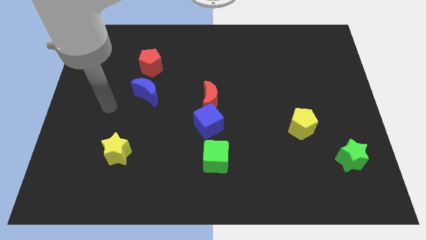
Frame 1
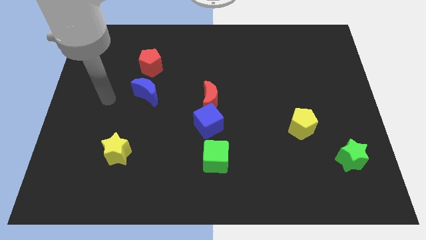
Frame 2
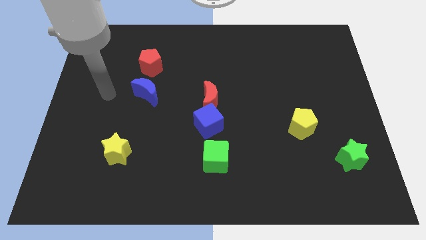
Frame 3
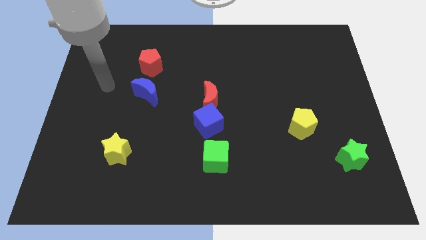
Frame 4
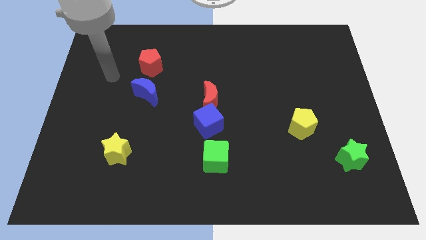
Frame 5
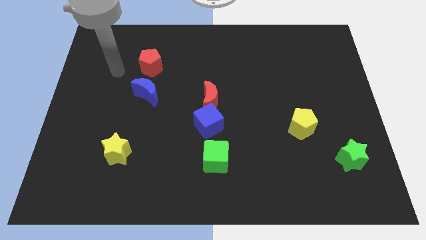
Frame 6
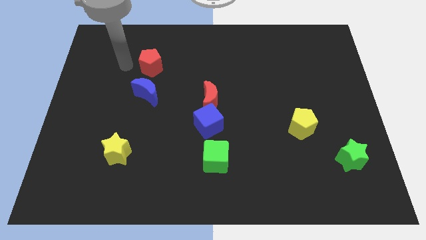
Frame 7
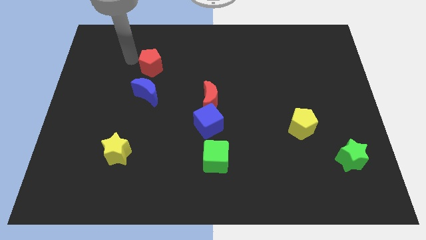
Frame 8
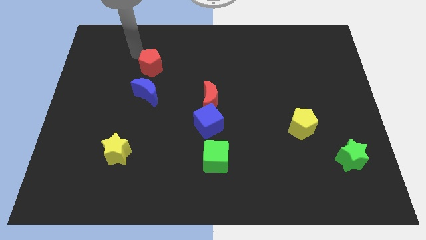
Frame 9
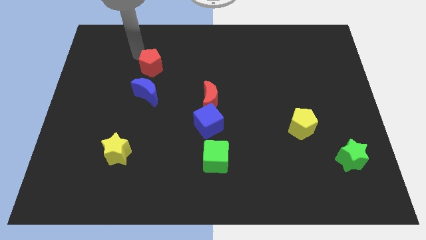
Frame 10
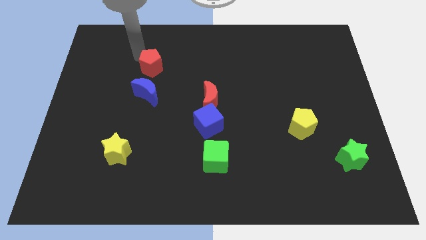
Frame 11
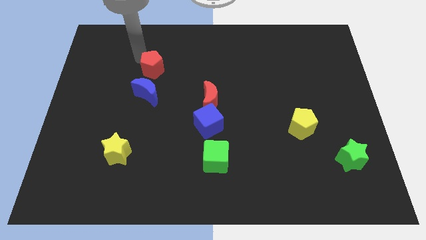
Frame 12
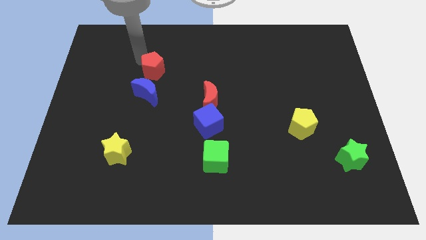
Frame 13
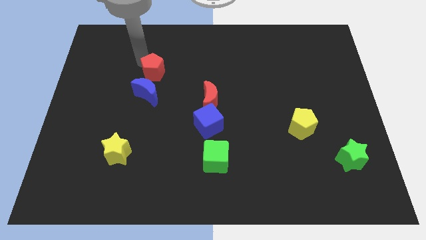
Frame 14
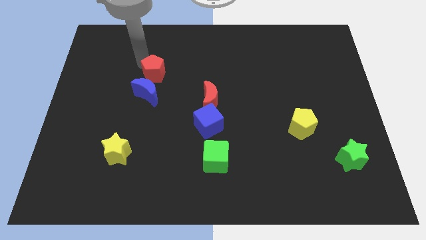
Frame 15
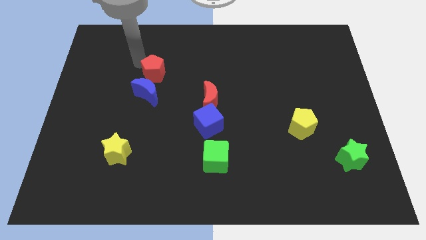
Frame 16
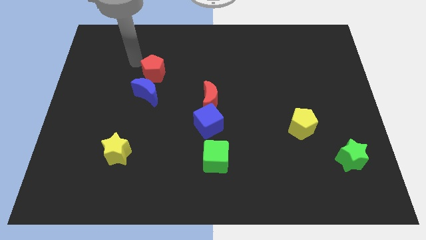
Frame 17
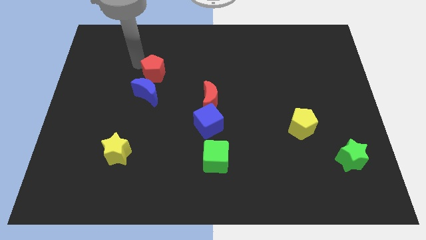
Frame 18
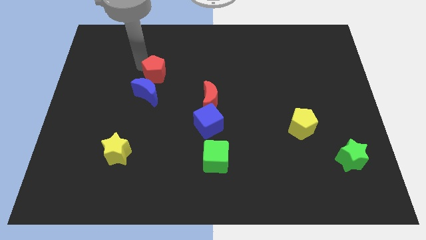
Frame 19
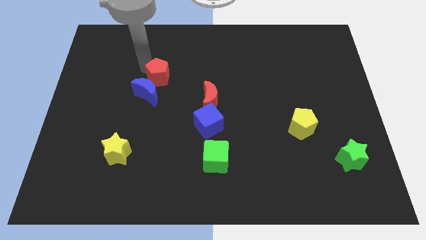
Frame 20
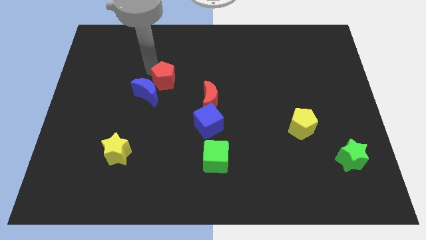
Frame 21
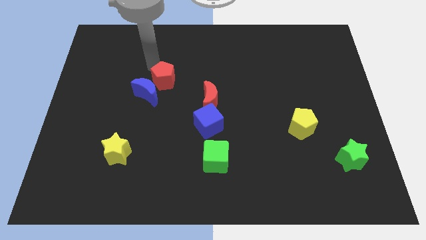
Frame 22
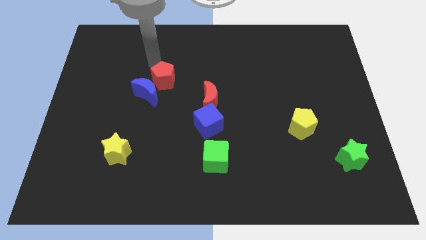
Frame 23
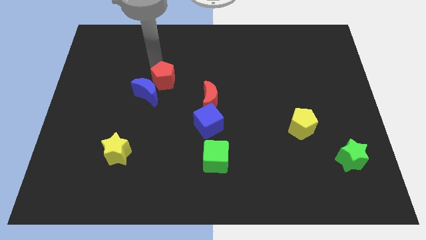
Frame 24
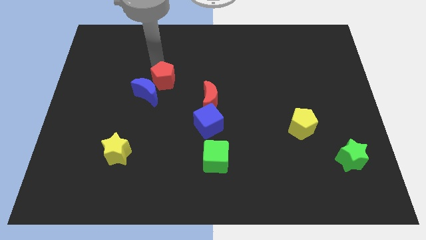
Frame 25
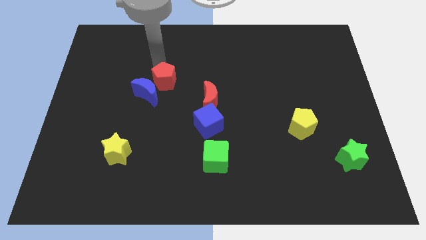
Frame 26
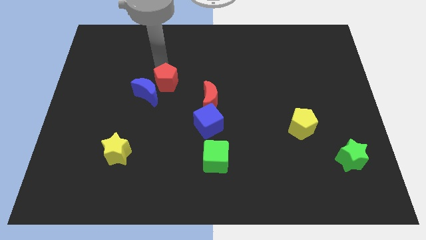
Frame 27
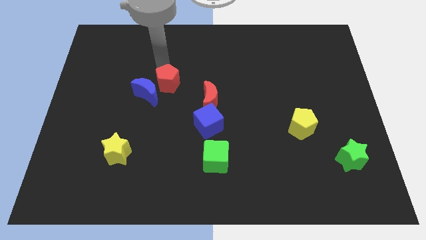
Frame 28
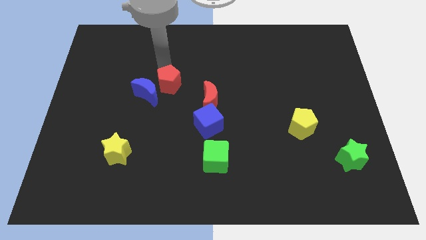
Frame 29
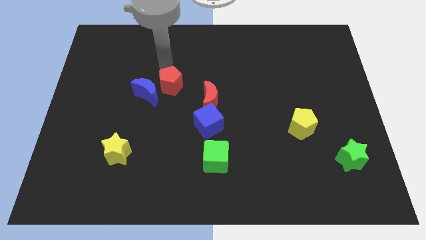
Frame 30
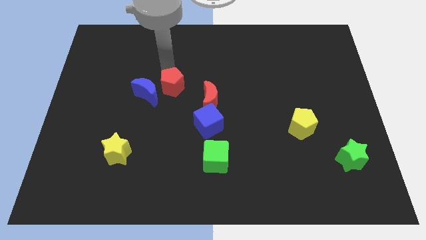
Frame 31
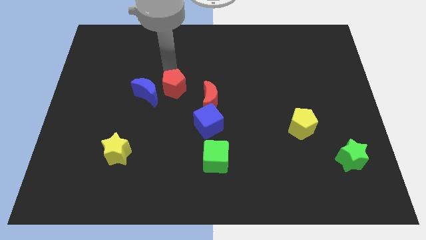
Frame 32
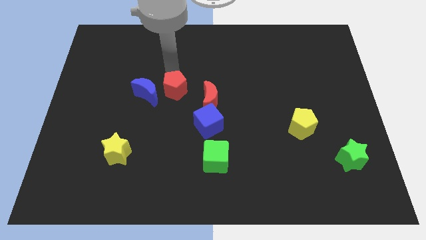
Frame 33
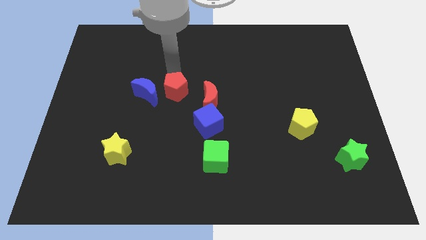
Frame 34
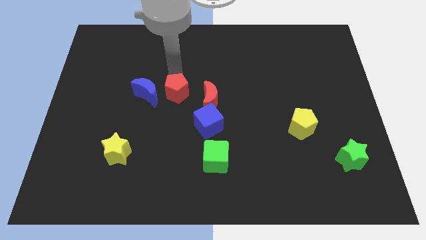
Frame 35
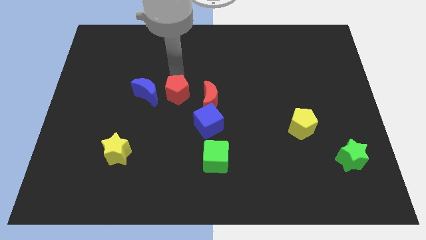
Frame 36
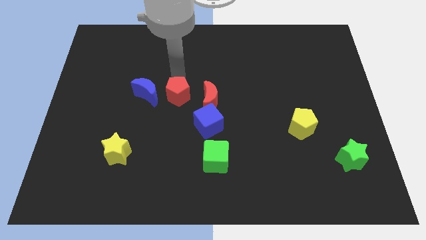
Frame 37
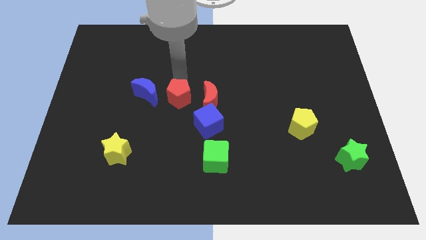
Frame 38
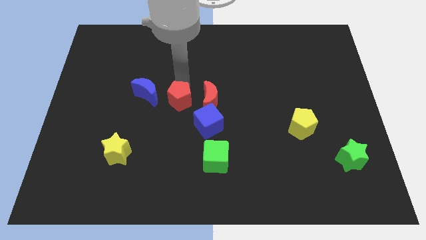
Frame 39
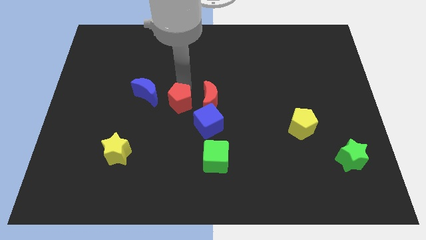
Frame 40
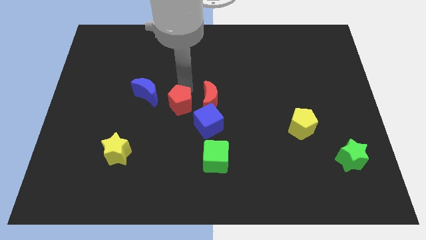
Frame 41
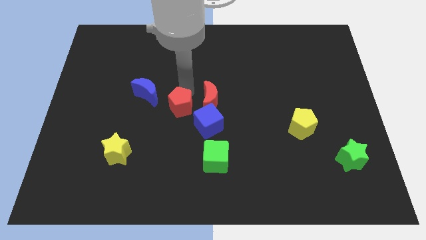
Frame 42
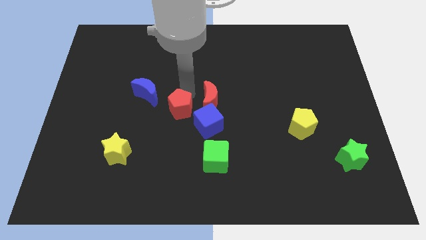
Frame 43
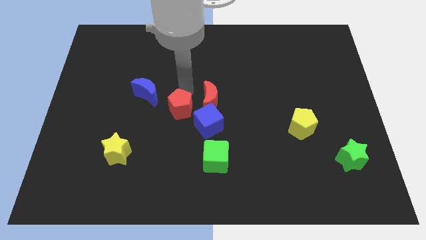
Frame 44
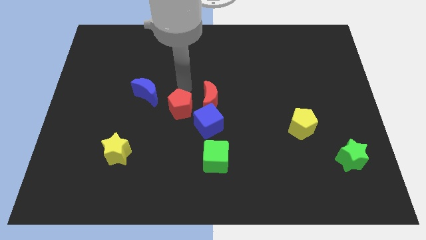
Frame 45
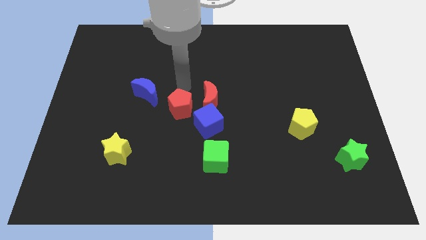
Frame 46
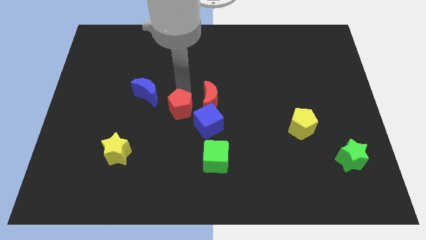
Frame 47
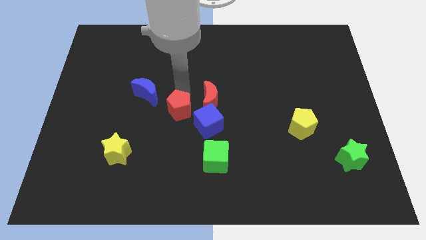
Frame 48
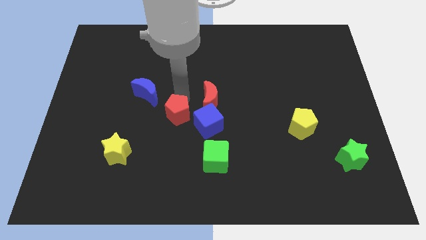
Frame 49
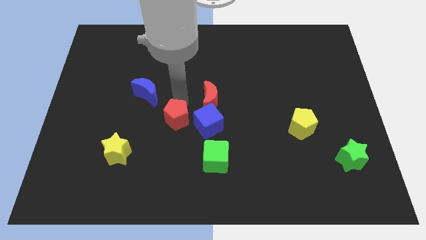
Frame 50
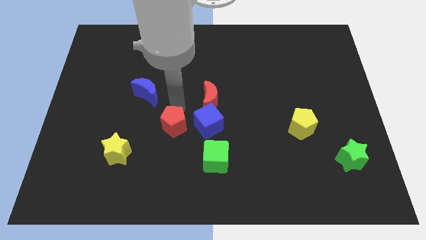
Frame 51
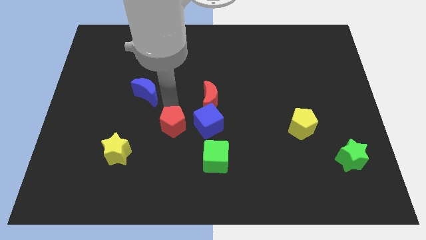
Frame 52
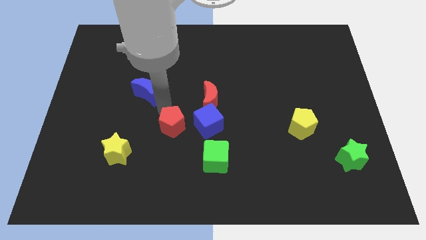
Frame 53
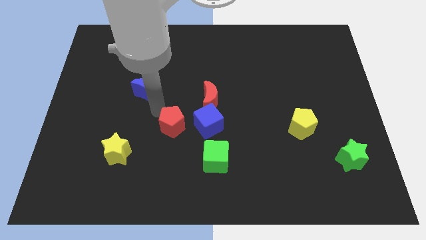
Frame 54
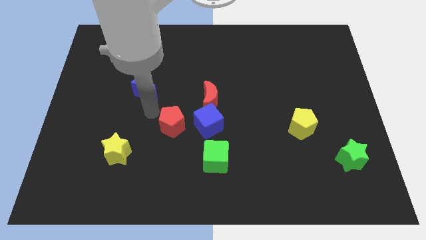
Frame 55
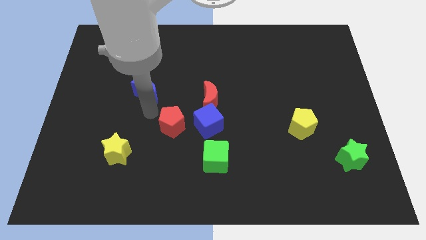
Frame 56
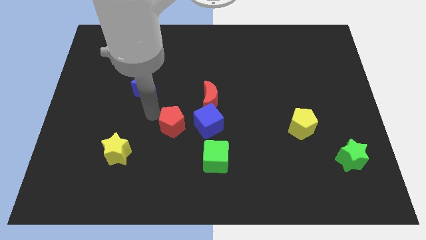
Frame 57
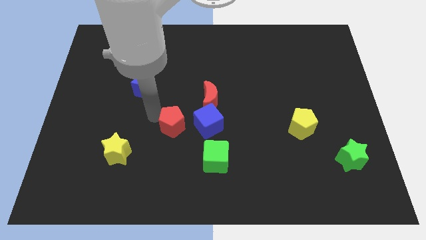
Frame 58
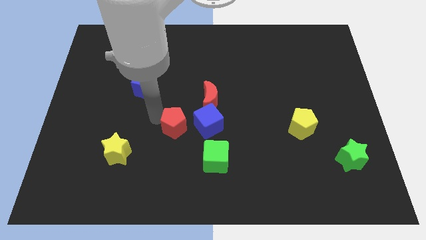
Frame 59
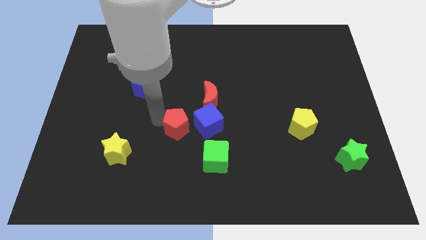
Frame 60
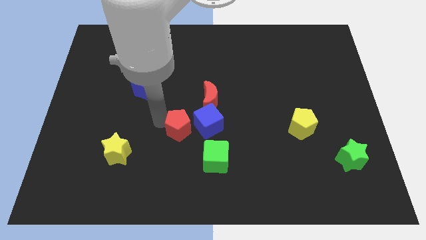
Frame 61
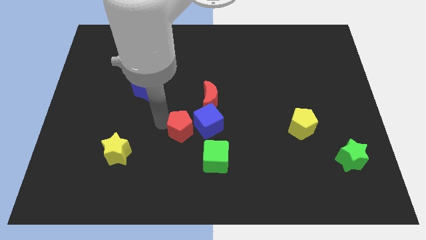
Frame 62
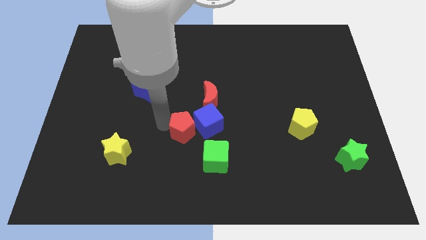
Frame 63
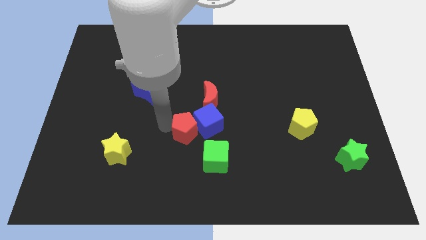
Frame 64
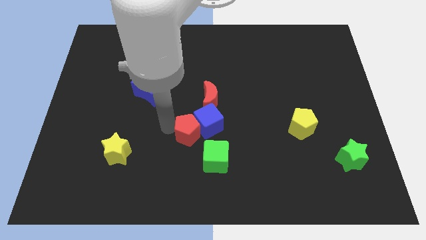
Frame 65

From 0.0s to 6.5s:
slide the red pentagon to the bottom side of the red moon

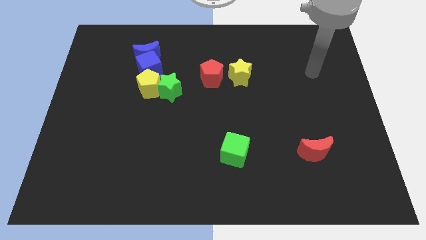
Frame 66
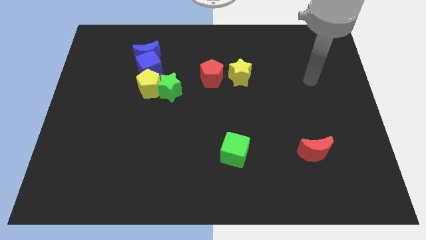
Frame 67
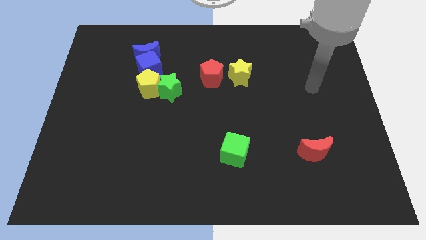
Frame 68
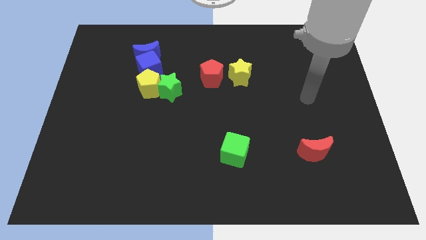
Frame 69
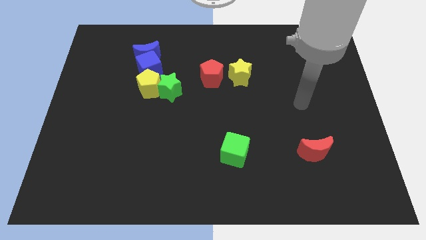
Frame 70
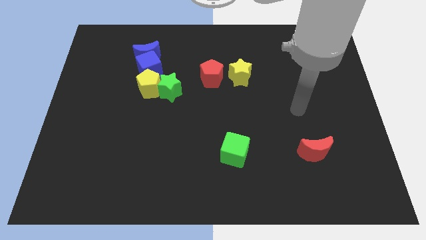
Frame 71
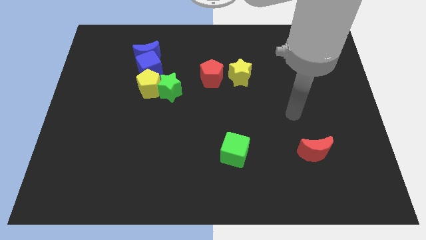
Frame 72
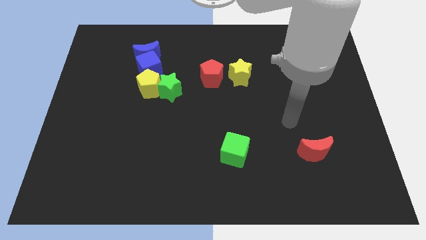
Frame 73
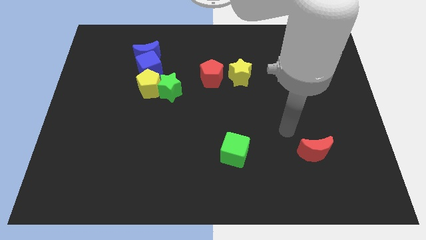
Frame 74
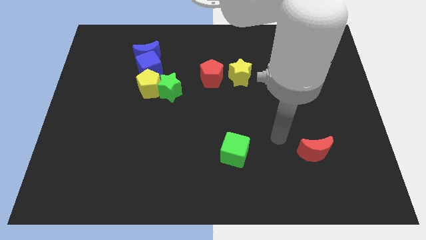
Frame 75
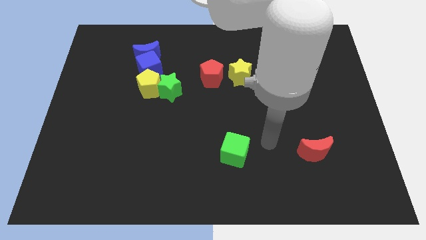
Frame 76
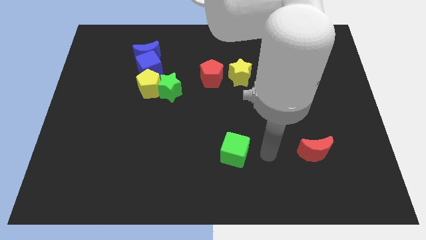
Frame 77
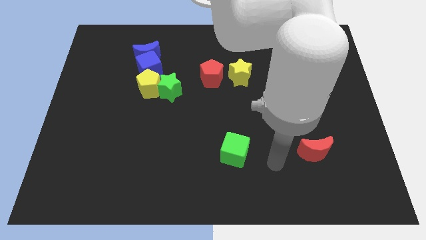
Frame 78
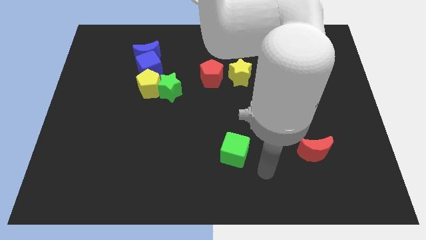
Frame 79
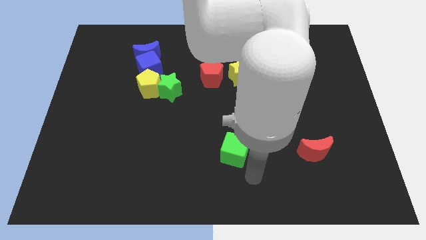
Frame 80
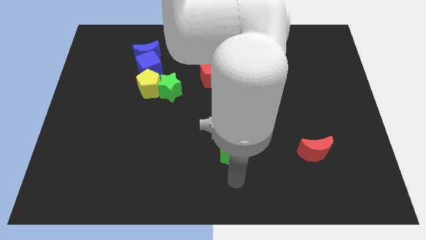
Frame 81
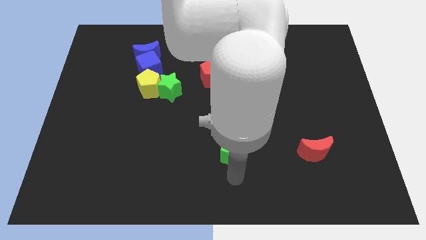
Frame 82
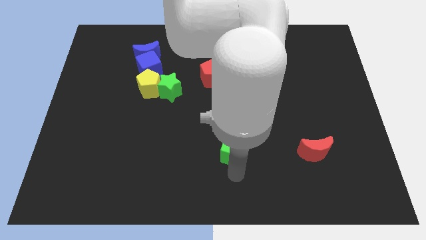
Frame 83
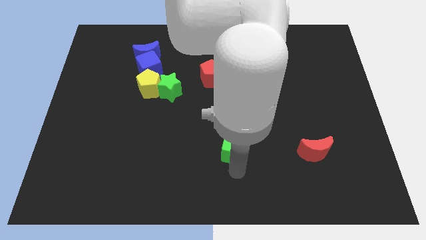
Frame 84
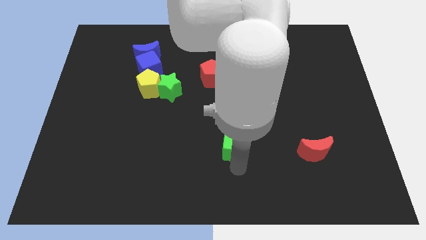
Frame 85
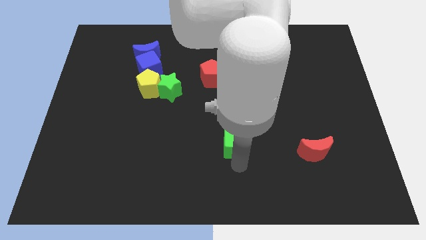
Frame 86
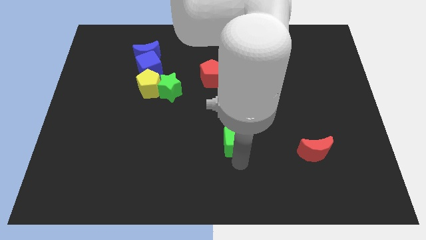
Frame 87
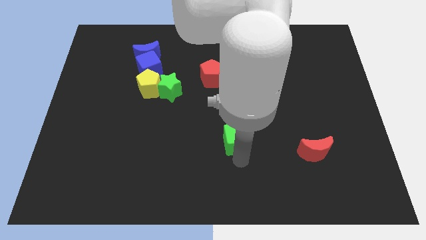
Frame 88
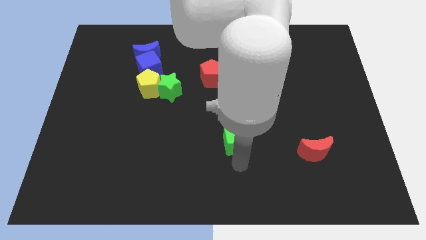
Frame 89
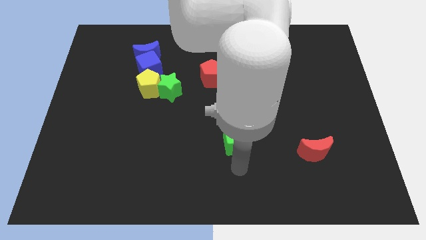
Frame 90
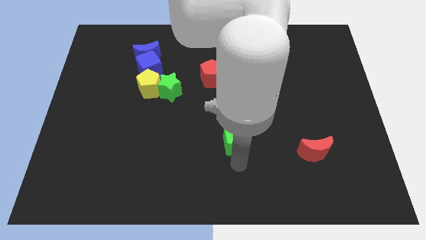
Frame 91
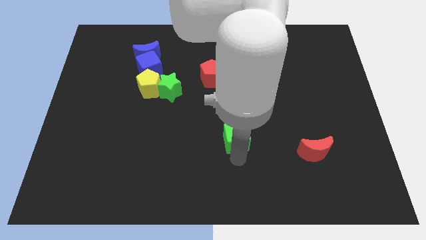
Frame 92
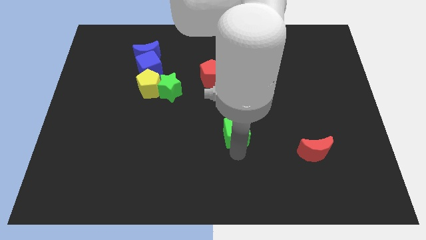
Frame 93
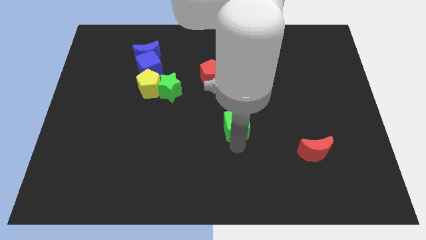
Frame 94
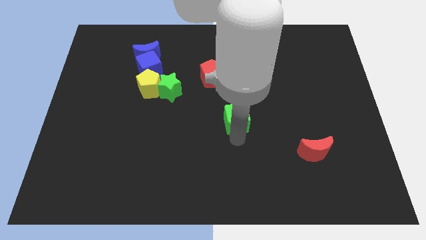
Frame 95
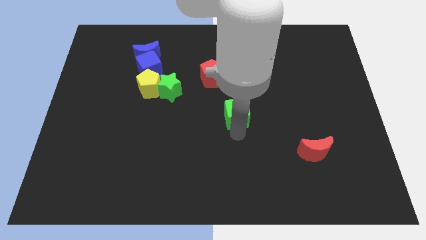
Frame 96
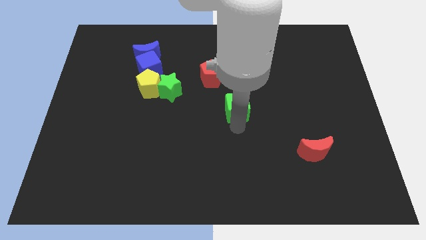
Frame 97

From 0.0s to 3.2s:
move the green cube to the bottom right side of the red pentagon
